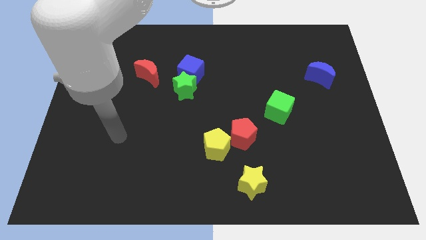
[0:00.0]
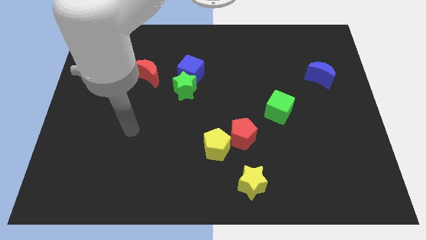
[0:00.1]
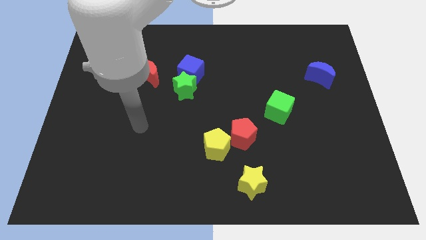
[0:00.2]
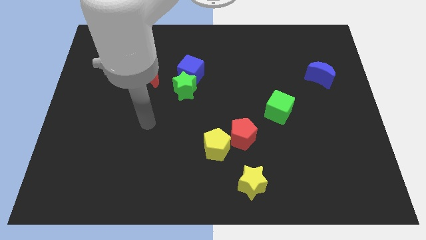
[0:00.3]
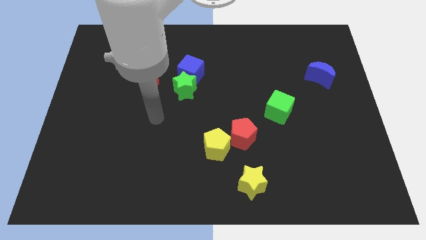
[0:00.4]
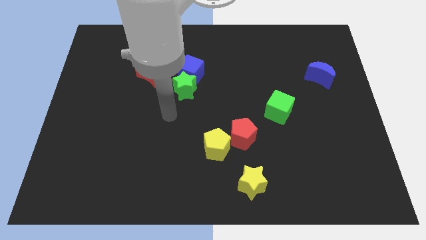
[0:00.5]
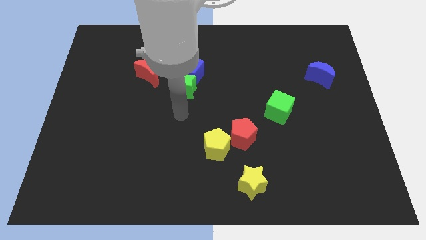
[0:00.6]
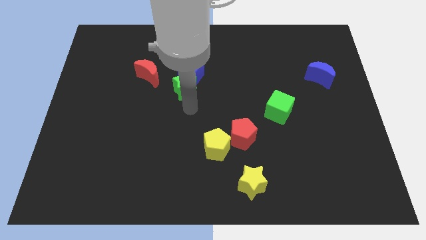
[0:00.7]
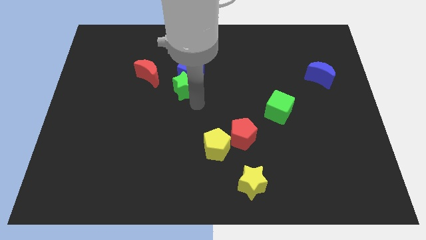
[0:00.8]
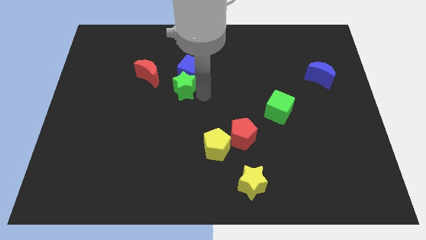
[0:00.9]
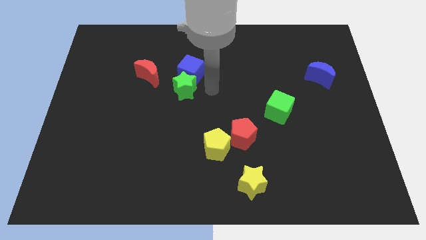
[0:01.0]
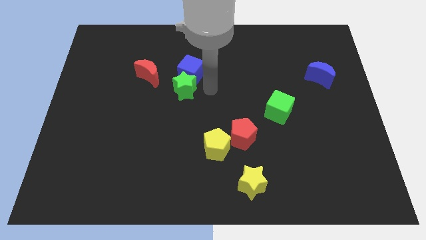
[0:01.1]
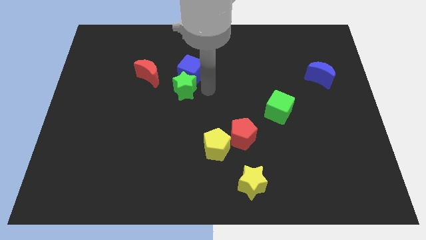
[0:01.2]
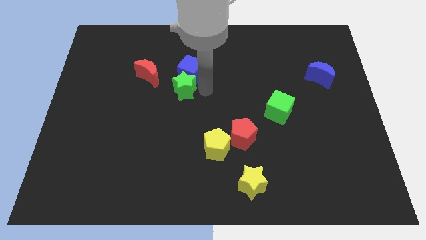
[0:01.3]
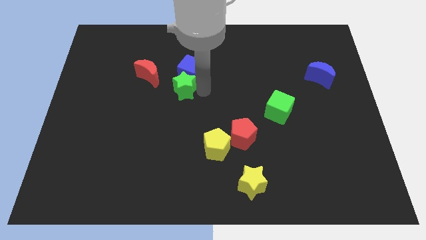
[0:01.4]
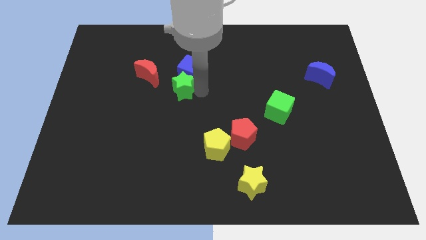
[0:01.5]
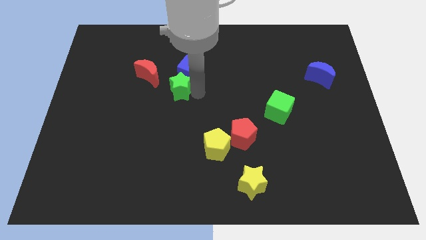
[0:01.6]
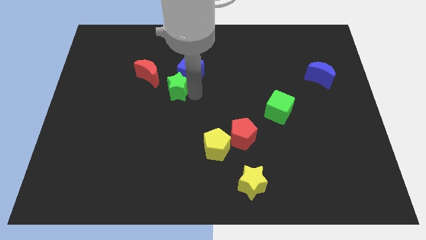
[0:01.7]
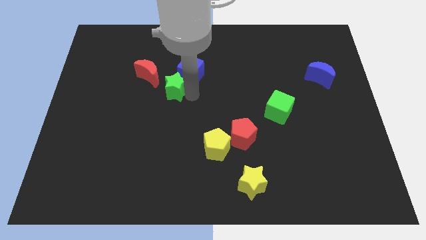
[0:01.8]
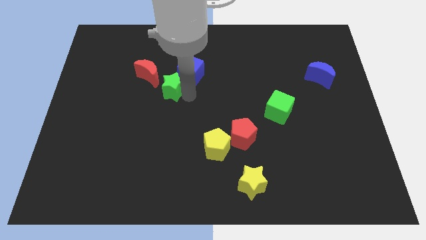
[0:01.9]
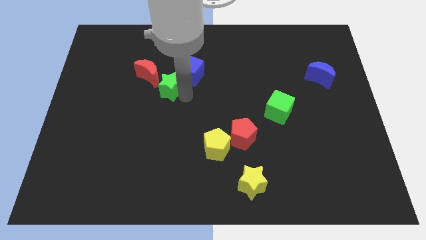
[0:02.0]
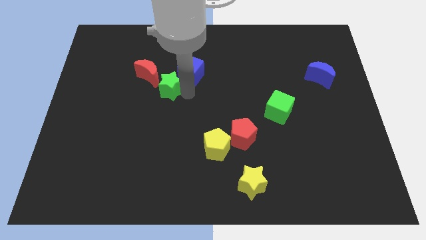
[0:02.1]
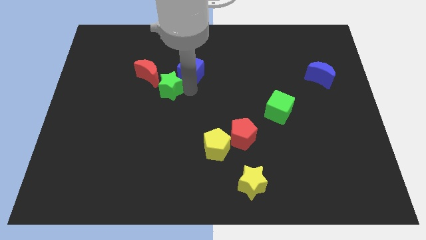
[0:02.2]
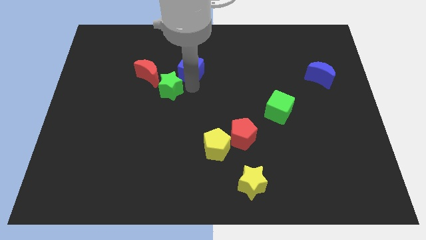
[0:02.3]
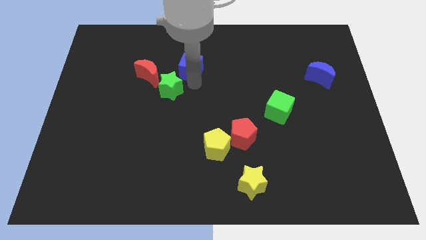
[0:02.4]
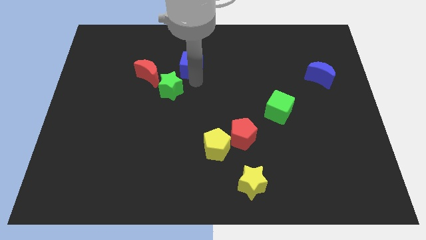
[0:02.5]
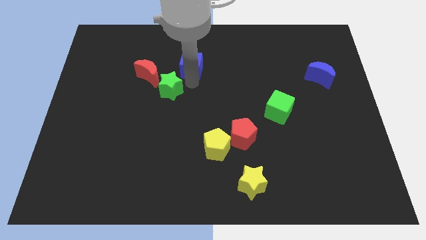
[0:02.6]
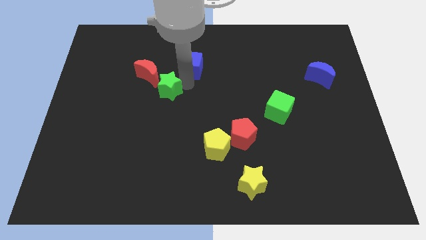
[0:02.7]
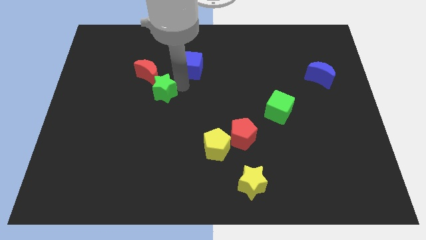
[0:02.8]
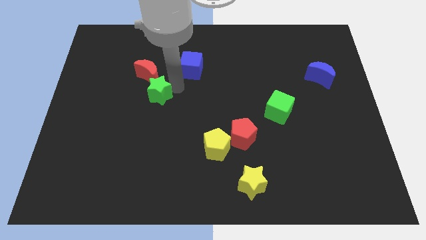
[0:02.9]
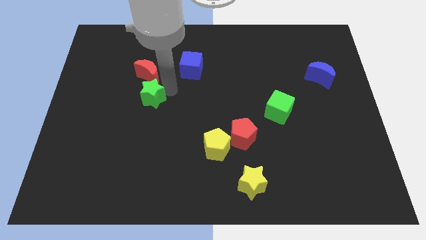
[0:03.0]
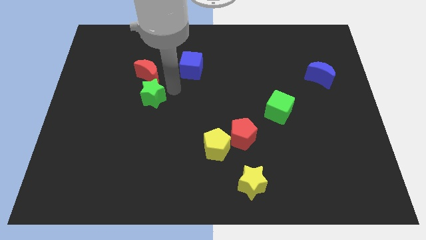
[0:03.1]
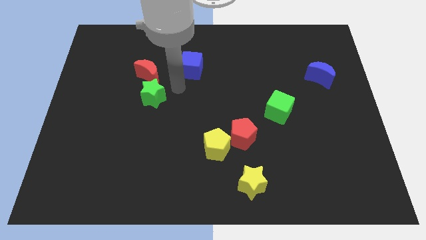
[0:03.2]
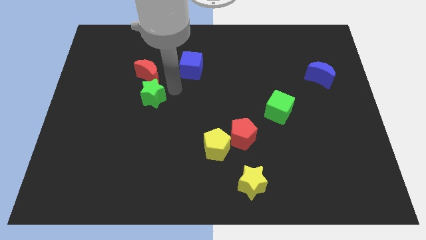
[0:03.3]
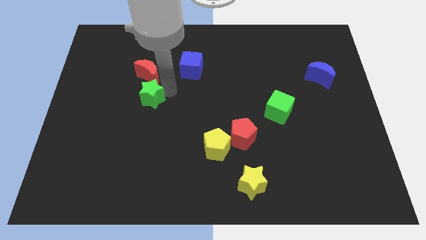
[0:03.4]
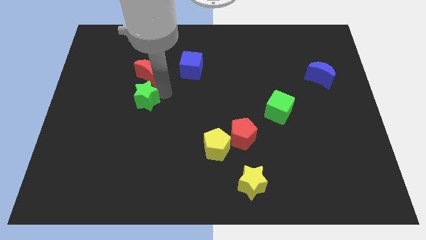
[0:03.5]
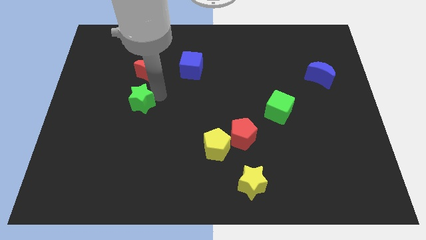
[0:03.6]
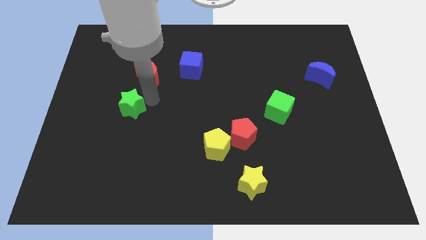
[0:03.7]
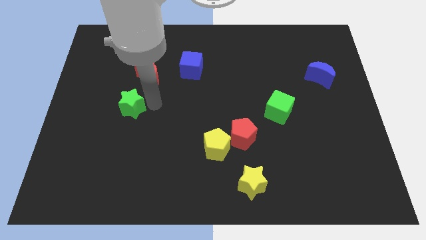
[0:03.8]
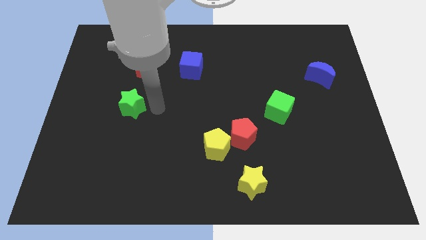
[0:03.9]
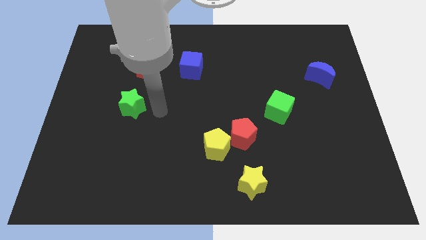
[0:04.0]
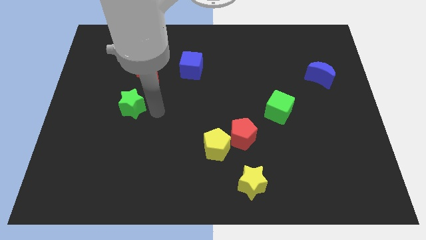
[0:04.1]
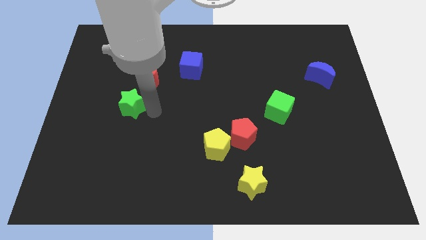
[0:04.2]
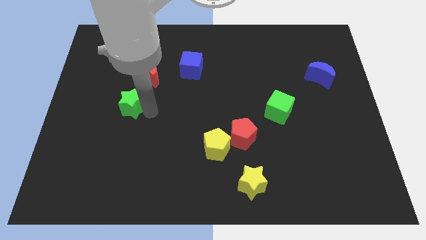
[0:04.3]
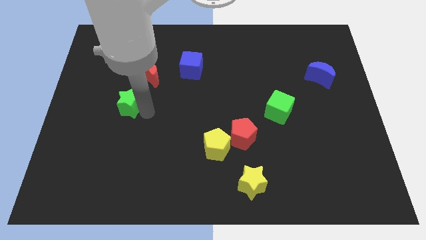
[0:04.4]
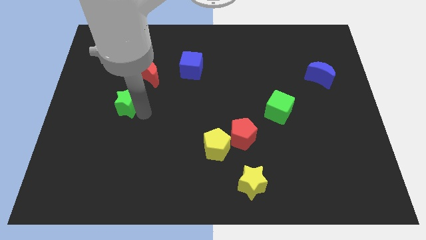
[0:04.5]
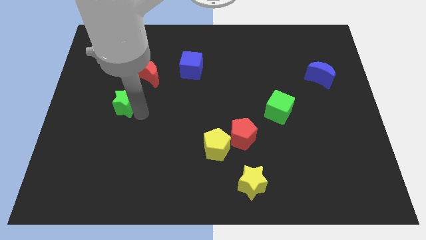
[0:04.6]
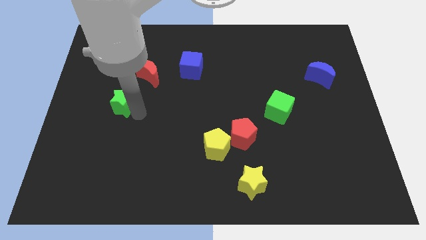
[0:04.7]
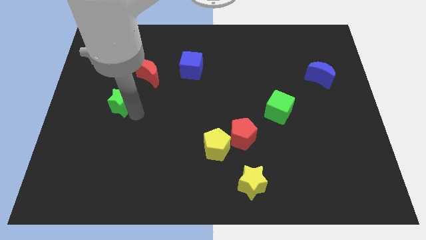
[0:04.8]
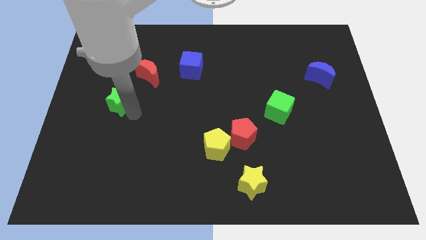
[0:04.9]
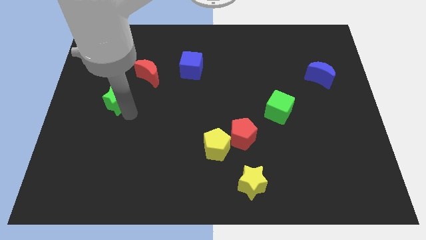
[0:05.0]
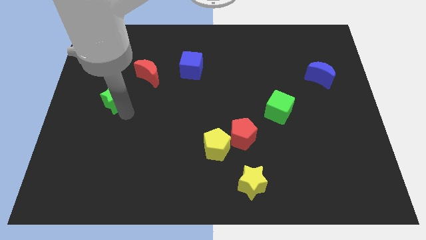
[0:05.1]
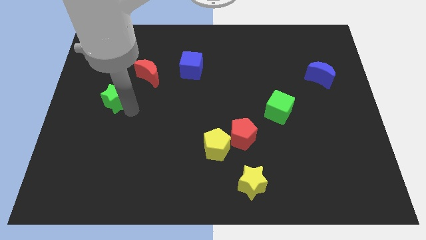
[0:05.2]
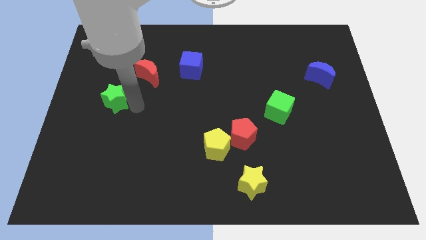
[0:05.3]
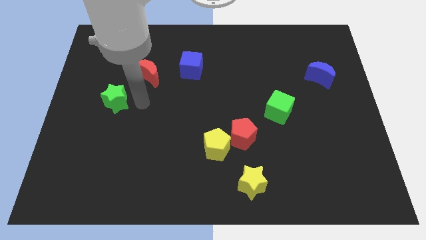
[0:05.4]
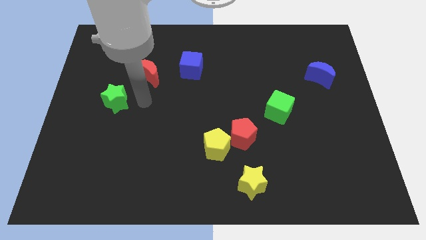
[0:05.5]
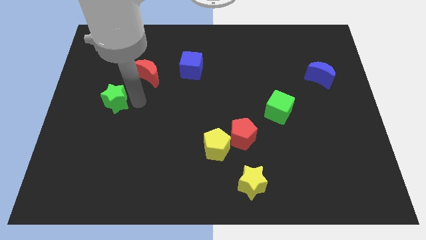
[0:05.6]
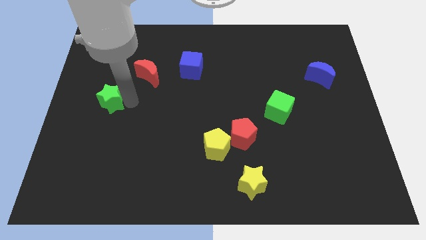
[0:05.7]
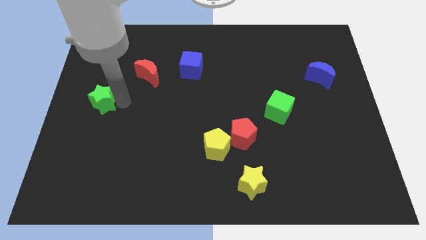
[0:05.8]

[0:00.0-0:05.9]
slide the green star to the left side
